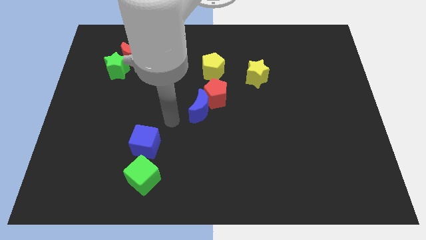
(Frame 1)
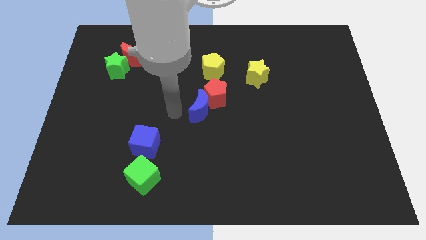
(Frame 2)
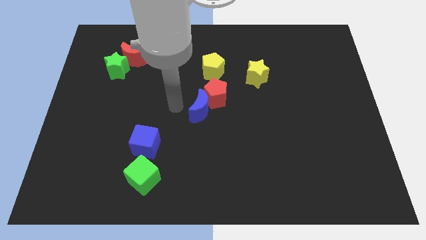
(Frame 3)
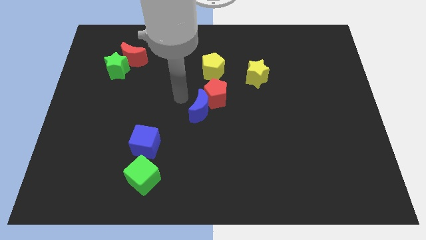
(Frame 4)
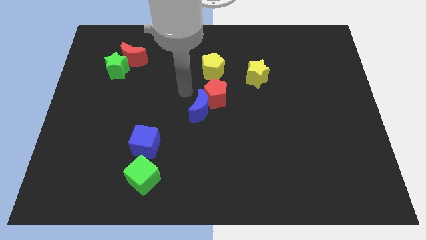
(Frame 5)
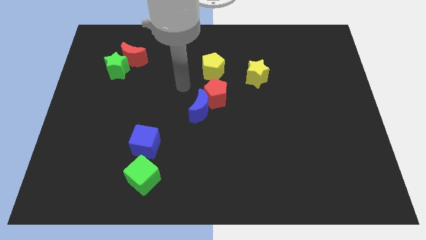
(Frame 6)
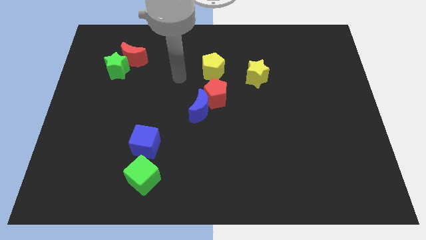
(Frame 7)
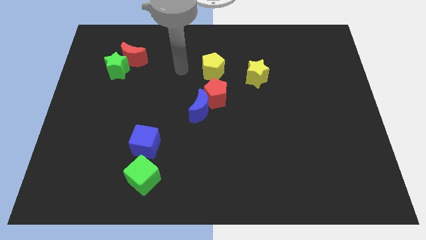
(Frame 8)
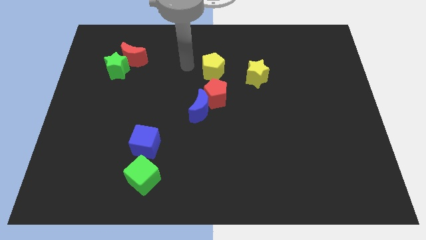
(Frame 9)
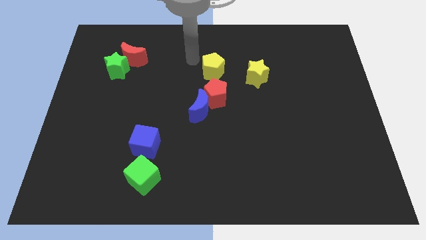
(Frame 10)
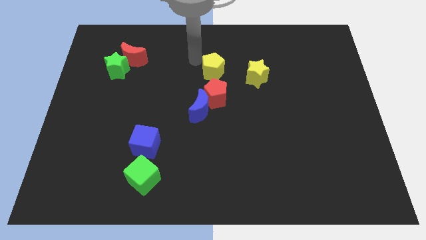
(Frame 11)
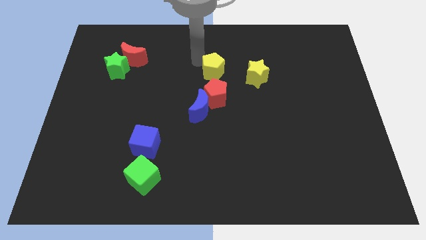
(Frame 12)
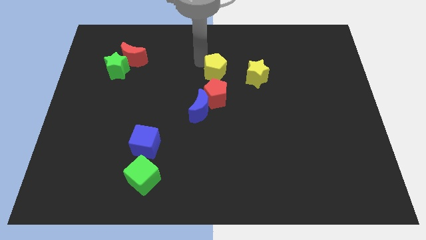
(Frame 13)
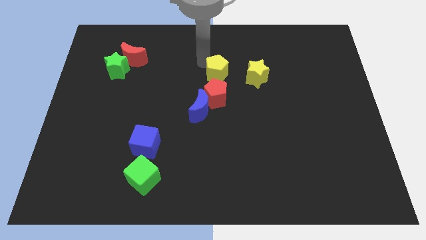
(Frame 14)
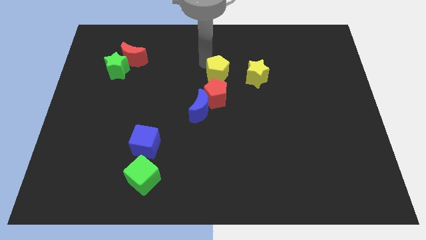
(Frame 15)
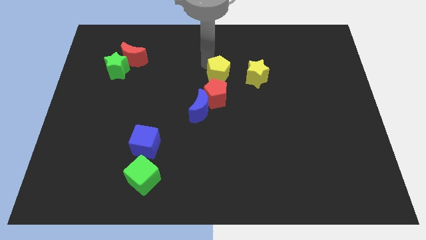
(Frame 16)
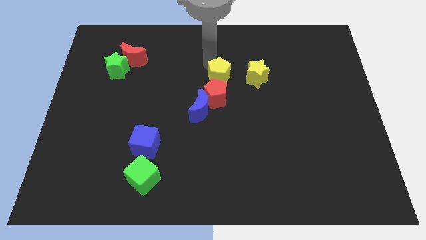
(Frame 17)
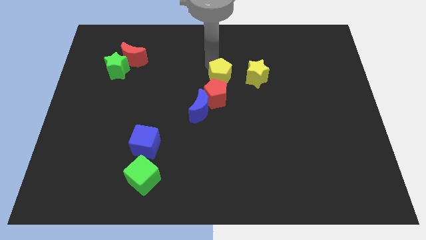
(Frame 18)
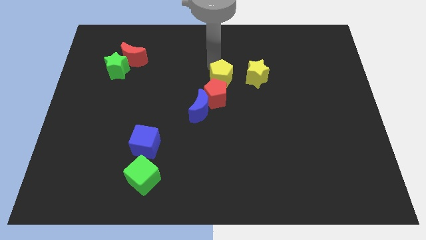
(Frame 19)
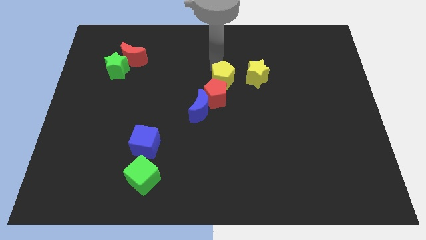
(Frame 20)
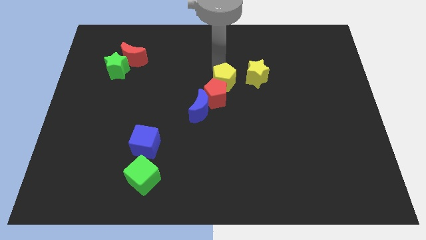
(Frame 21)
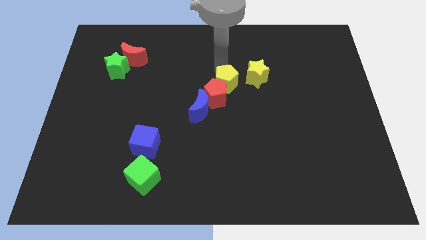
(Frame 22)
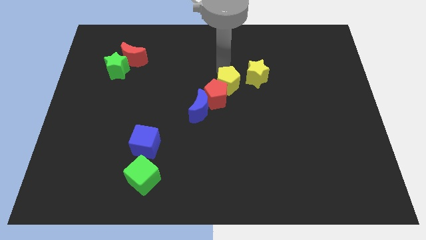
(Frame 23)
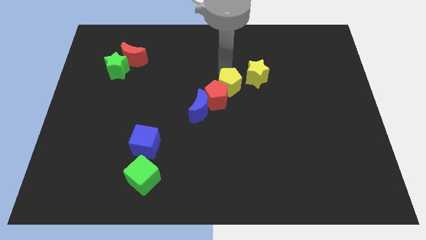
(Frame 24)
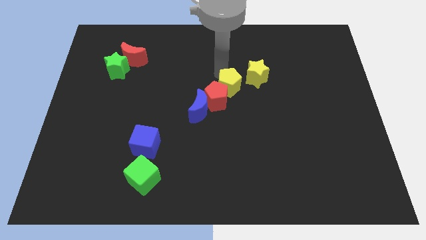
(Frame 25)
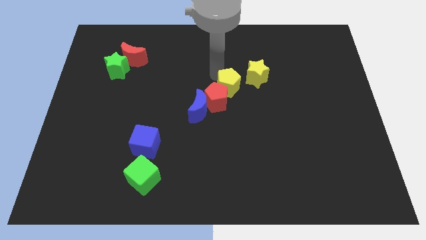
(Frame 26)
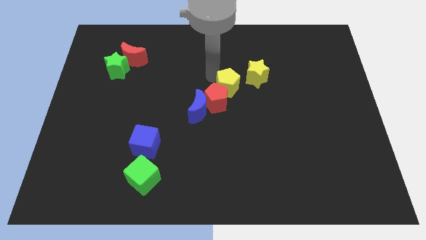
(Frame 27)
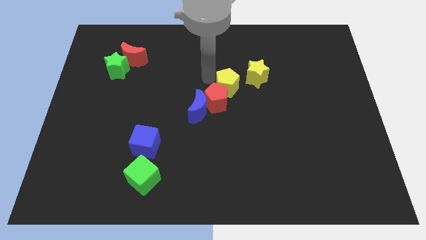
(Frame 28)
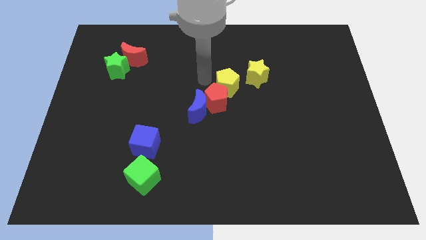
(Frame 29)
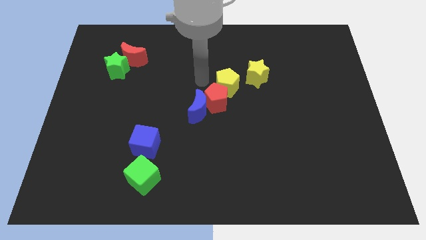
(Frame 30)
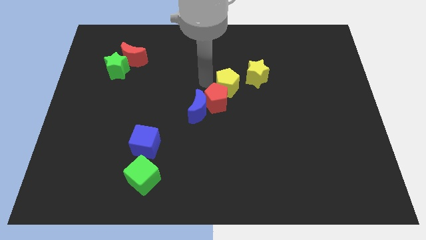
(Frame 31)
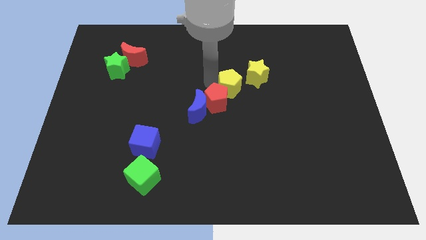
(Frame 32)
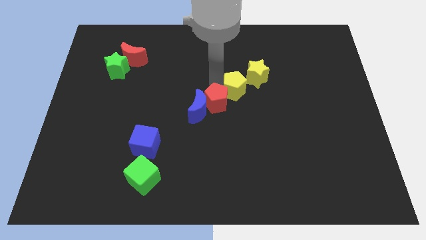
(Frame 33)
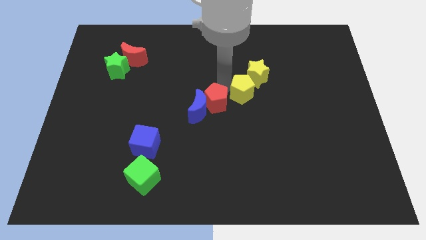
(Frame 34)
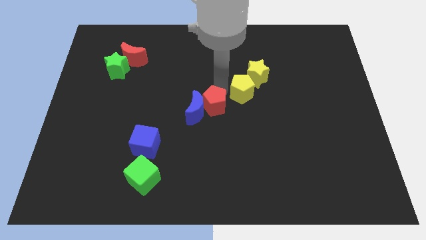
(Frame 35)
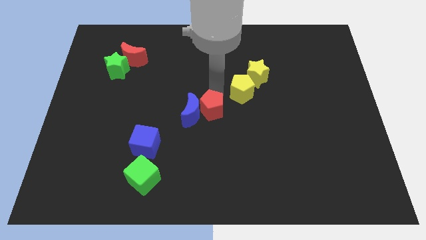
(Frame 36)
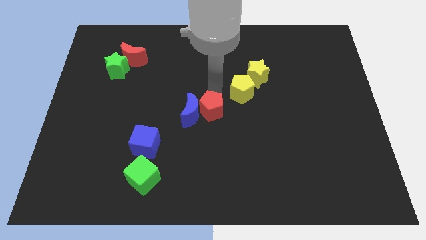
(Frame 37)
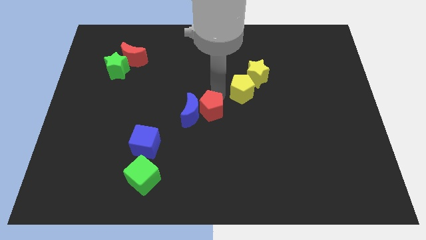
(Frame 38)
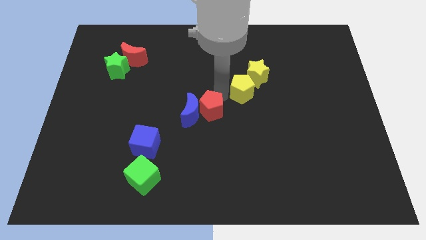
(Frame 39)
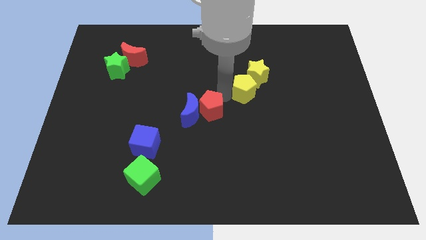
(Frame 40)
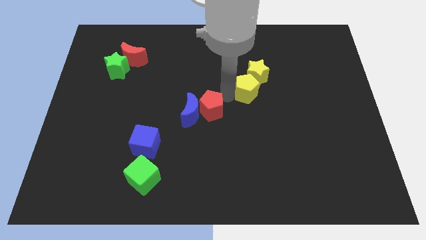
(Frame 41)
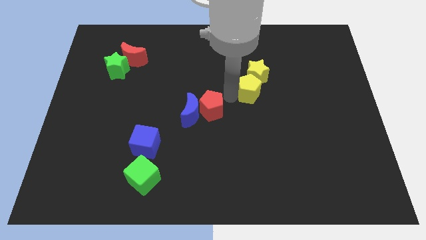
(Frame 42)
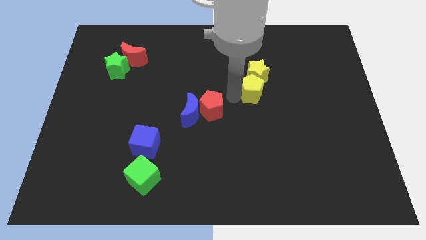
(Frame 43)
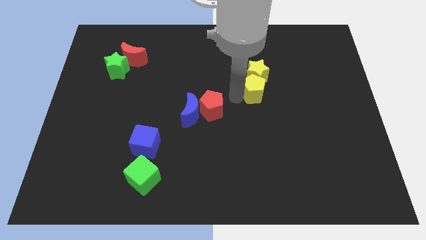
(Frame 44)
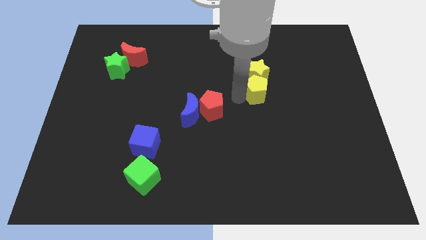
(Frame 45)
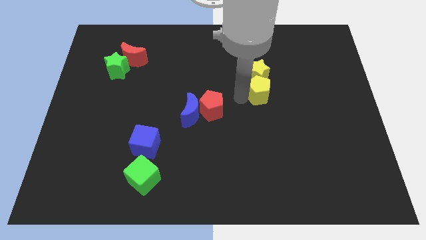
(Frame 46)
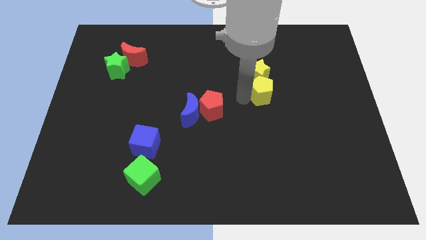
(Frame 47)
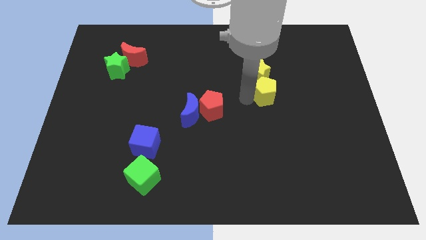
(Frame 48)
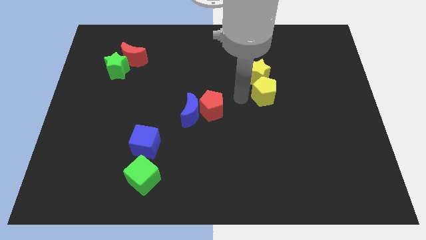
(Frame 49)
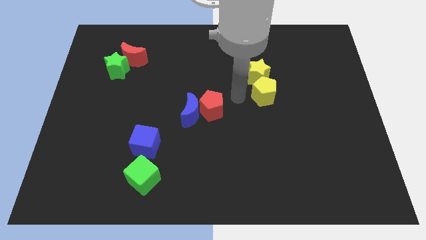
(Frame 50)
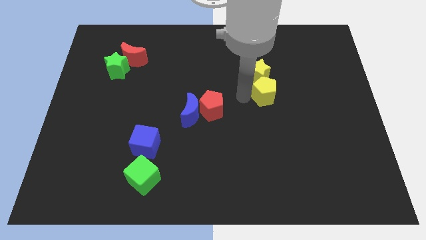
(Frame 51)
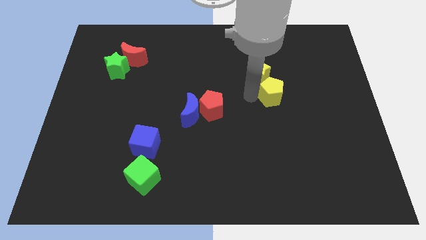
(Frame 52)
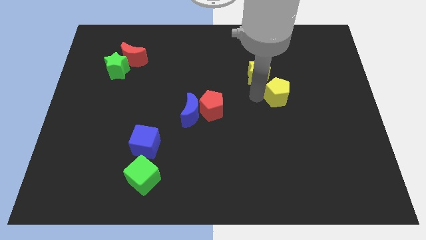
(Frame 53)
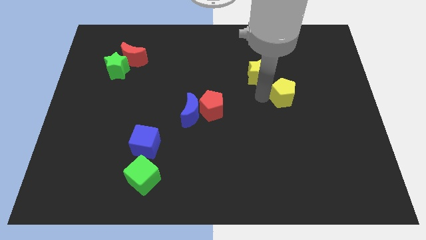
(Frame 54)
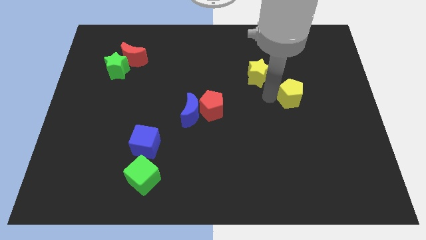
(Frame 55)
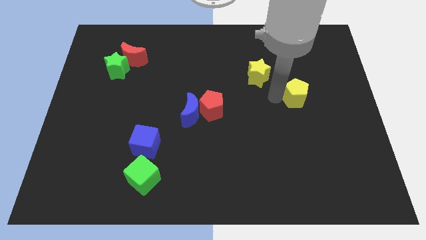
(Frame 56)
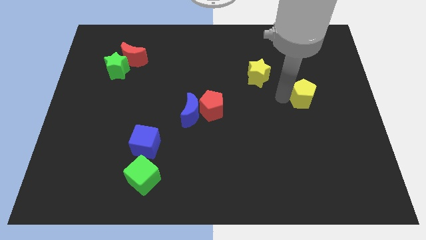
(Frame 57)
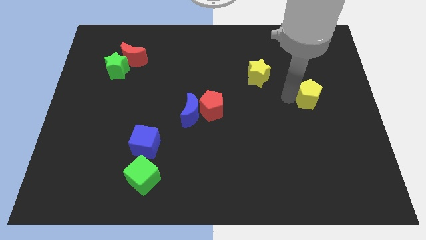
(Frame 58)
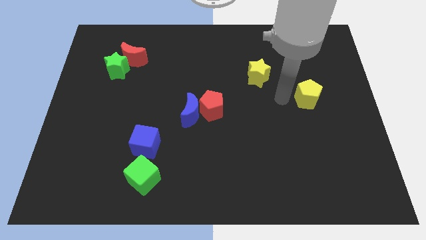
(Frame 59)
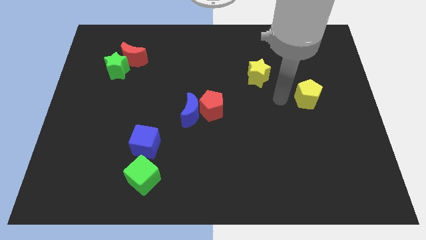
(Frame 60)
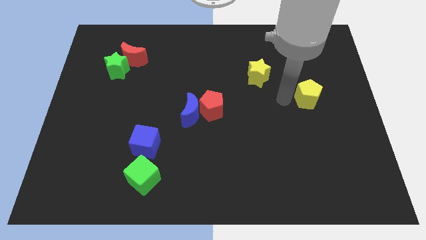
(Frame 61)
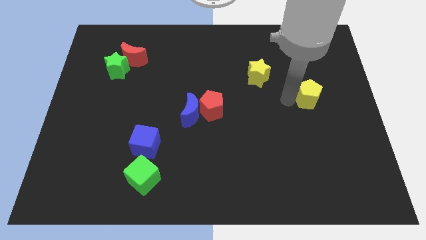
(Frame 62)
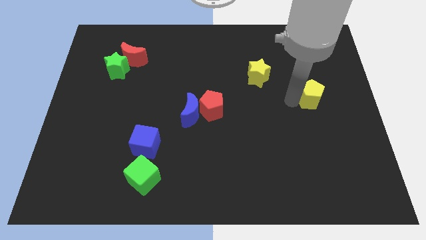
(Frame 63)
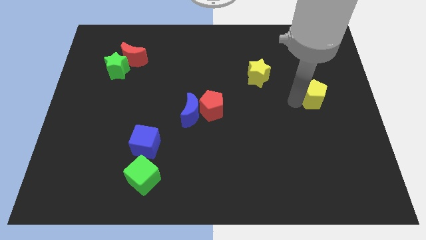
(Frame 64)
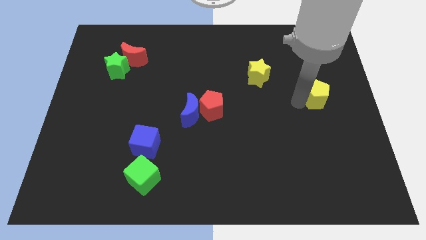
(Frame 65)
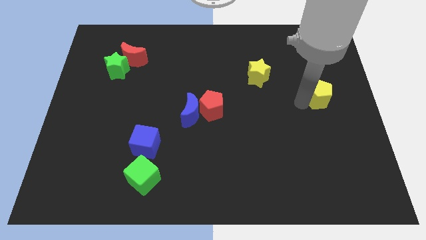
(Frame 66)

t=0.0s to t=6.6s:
slide the yellow pentagon to the center right
